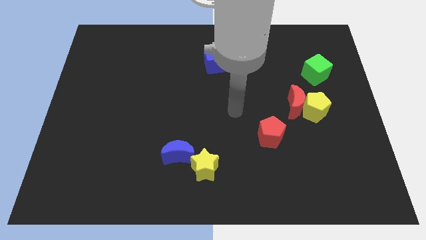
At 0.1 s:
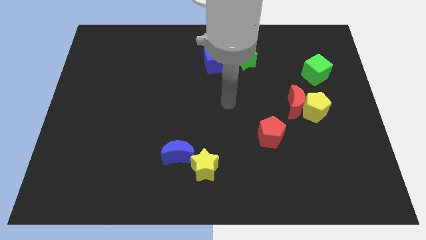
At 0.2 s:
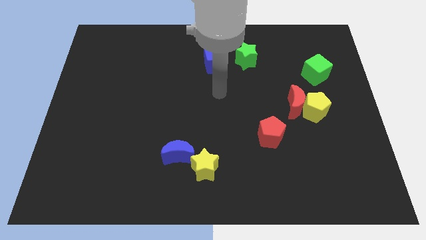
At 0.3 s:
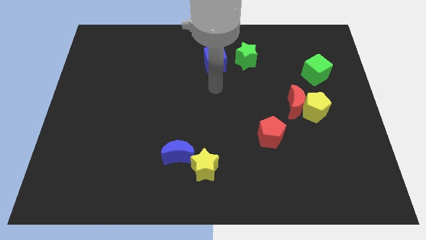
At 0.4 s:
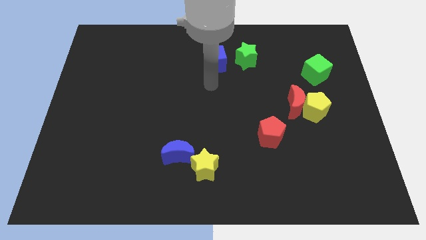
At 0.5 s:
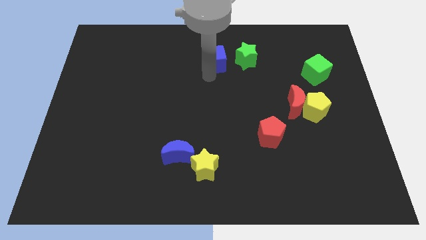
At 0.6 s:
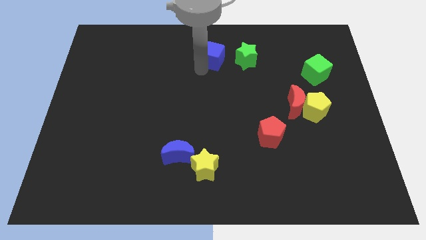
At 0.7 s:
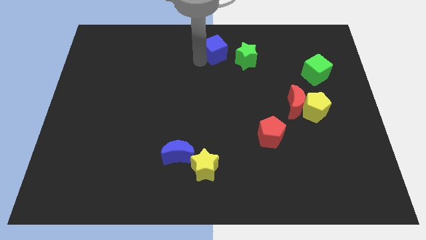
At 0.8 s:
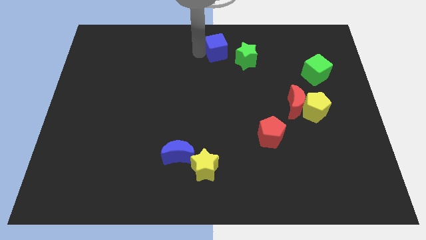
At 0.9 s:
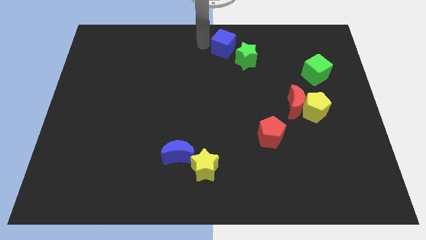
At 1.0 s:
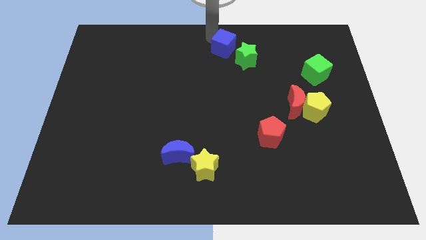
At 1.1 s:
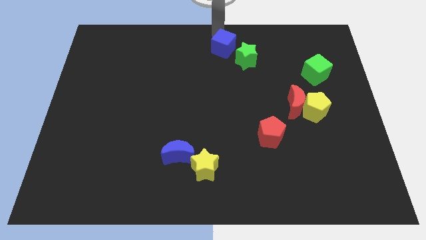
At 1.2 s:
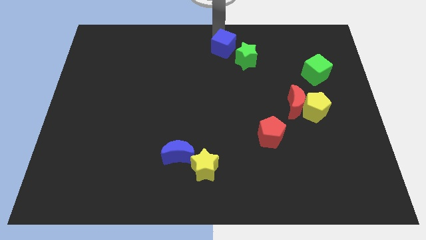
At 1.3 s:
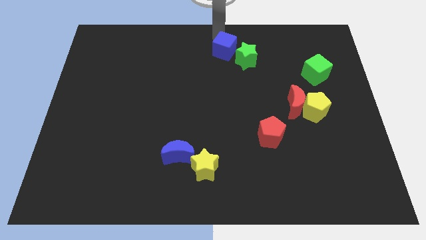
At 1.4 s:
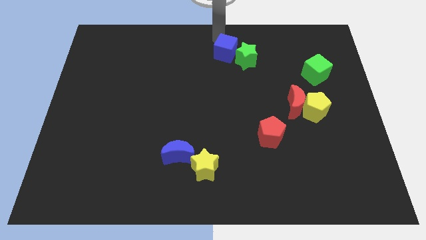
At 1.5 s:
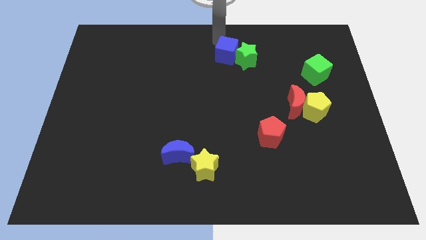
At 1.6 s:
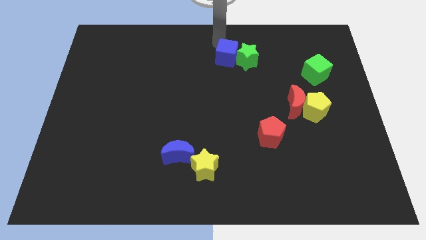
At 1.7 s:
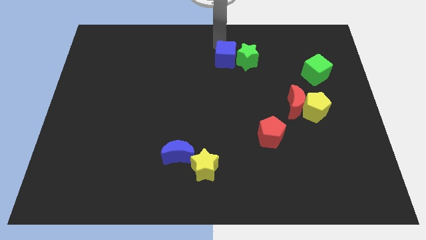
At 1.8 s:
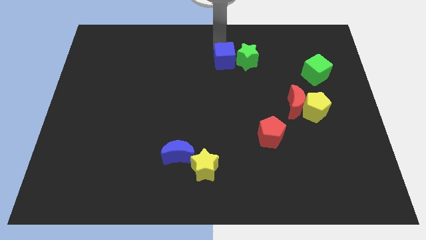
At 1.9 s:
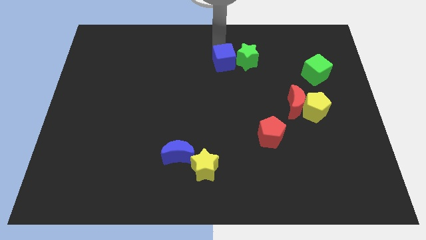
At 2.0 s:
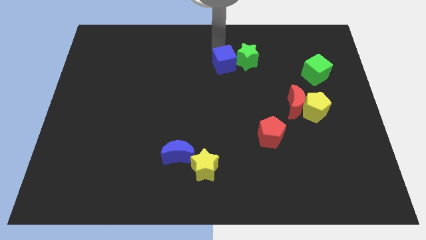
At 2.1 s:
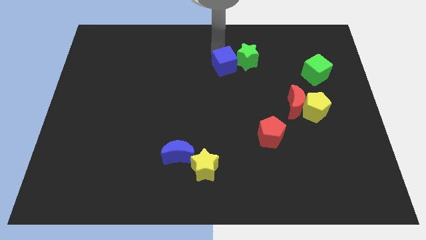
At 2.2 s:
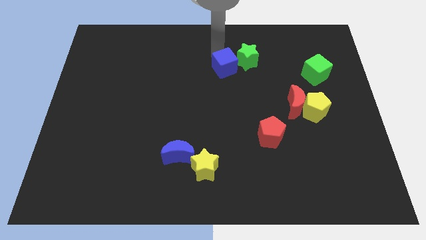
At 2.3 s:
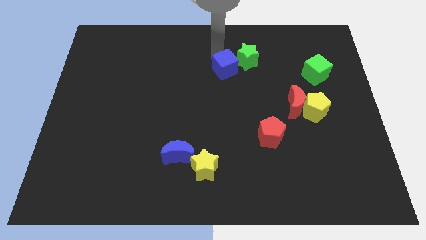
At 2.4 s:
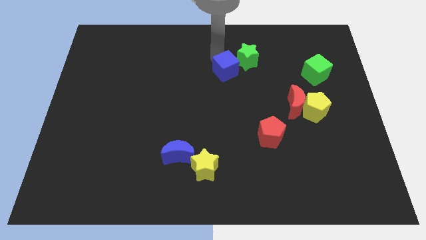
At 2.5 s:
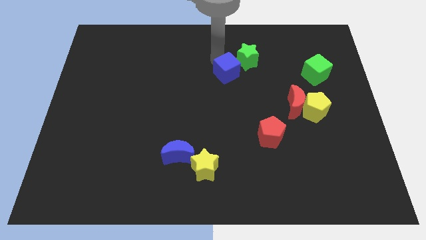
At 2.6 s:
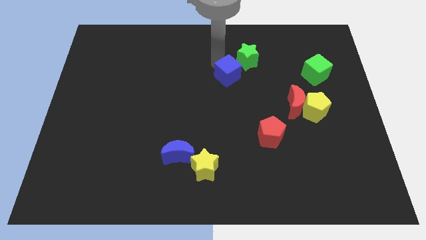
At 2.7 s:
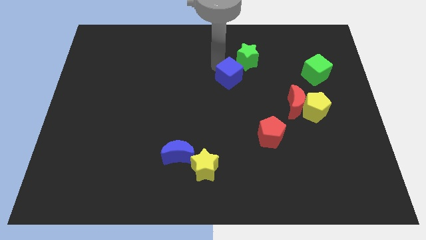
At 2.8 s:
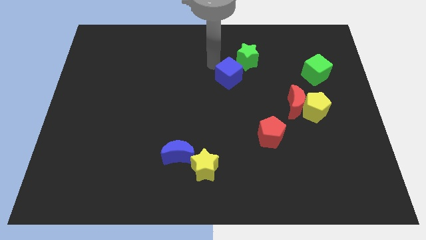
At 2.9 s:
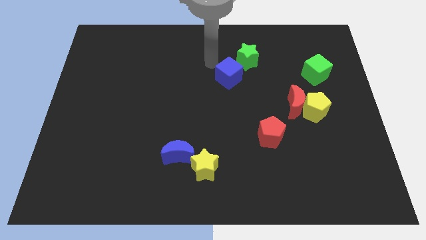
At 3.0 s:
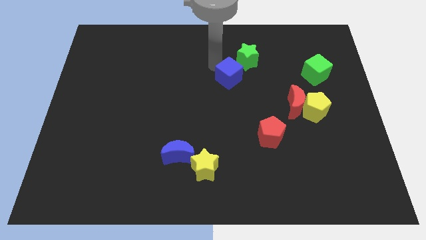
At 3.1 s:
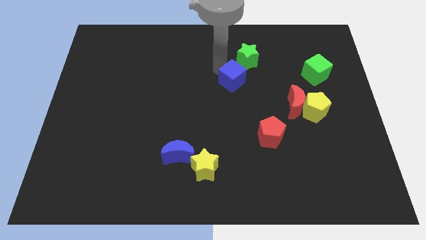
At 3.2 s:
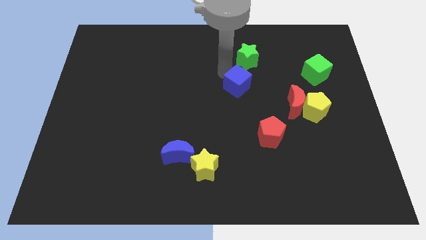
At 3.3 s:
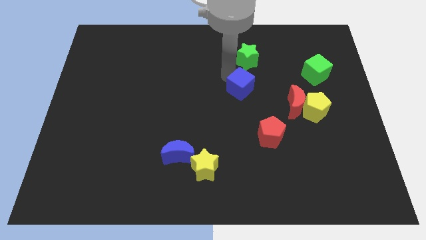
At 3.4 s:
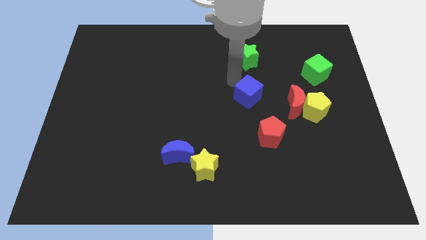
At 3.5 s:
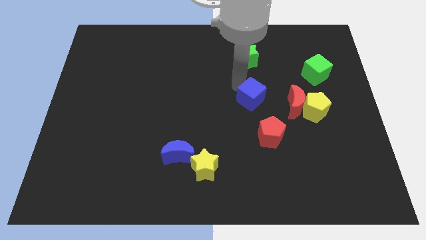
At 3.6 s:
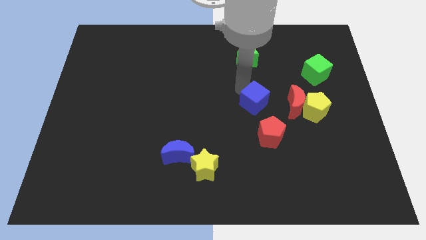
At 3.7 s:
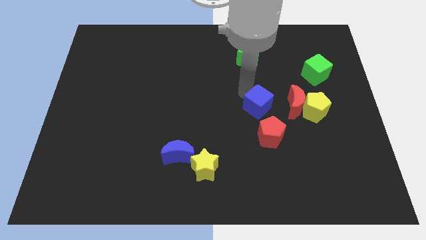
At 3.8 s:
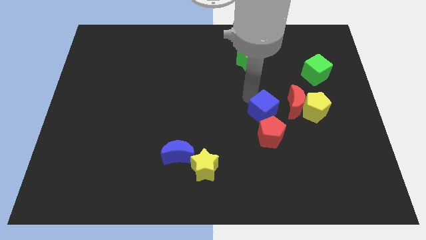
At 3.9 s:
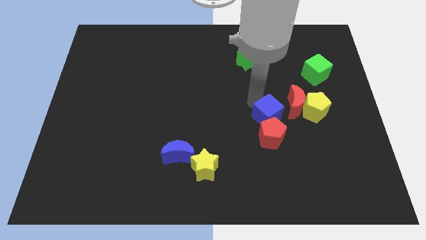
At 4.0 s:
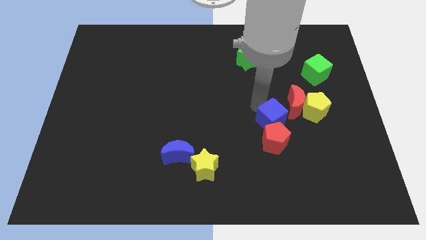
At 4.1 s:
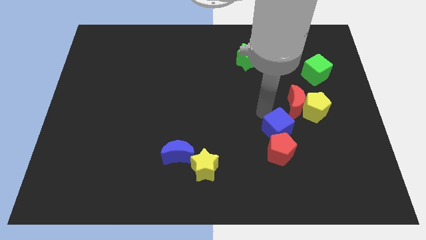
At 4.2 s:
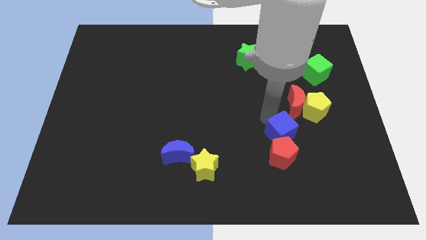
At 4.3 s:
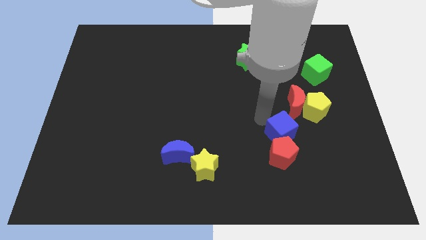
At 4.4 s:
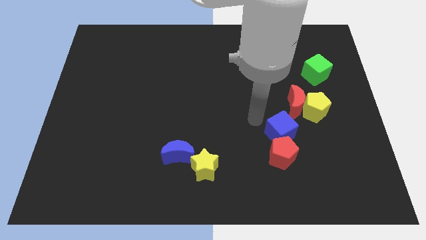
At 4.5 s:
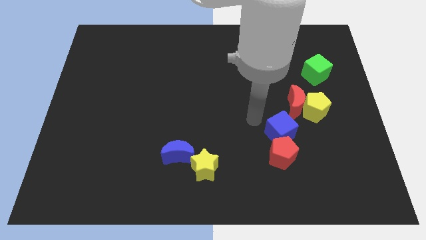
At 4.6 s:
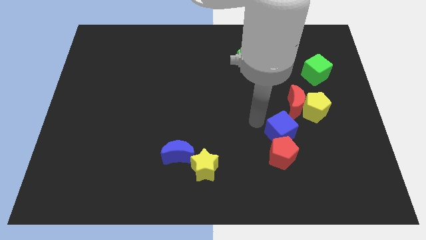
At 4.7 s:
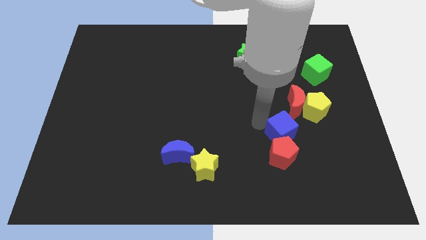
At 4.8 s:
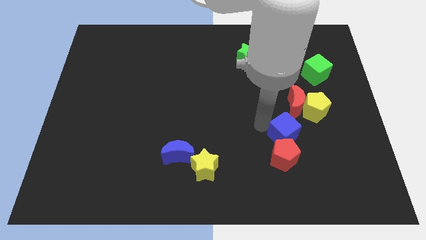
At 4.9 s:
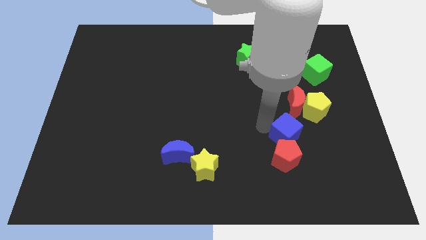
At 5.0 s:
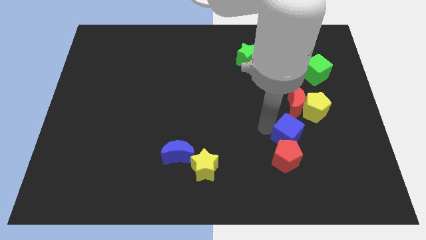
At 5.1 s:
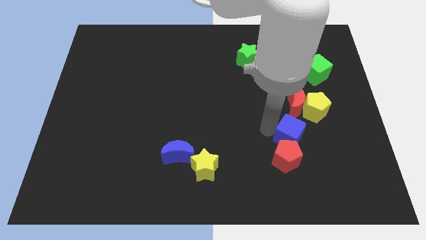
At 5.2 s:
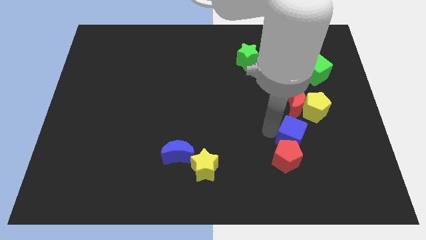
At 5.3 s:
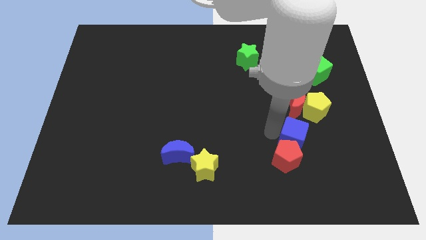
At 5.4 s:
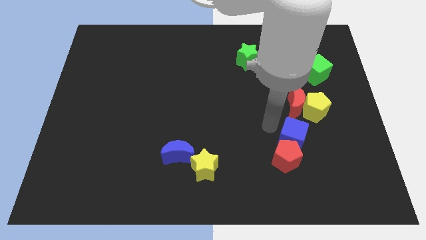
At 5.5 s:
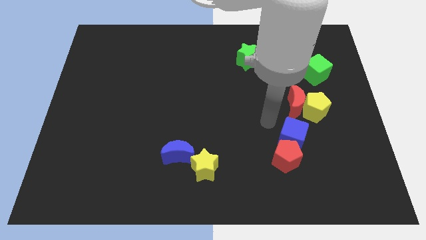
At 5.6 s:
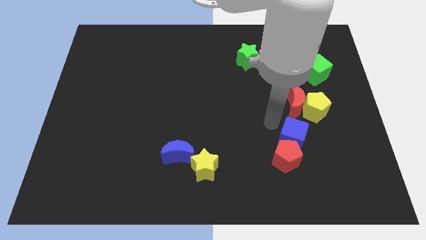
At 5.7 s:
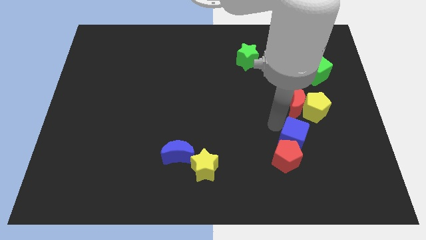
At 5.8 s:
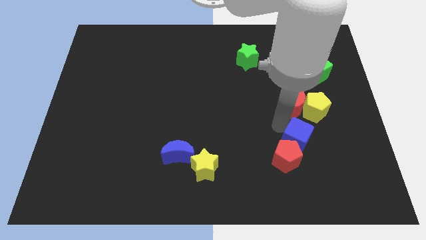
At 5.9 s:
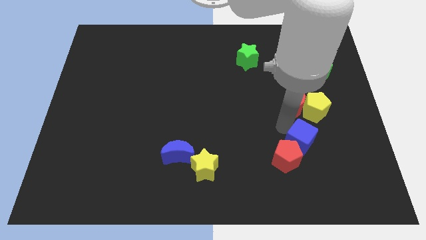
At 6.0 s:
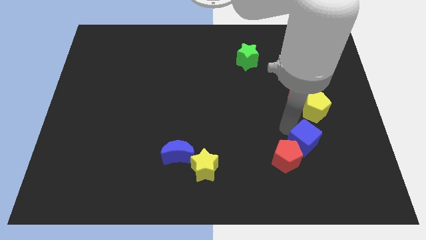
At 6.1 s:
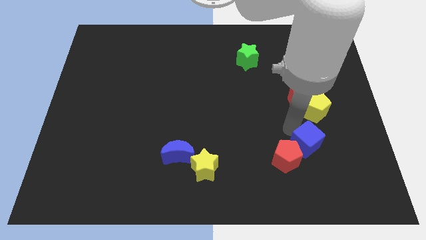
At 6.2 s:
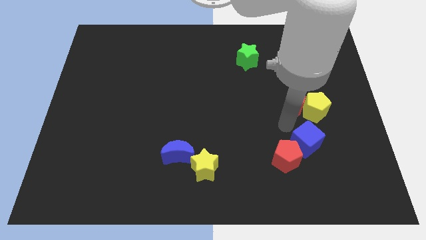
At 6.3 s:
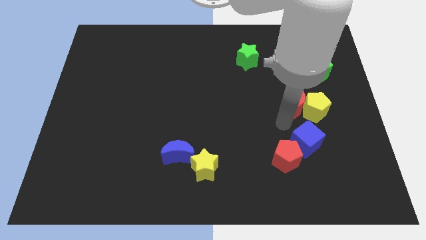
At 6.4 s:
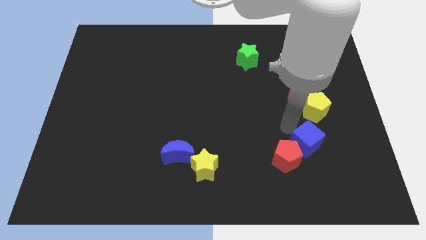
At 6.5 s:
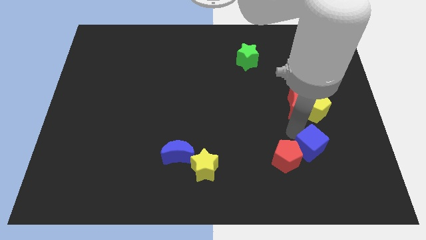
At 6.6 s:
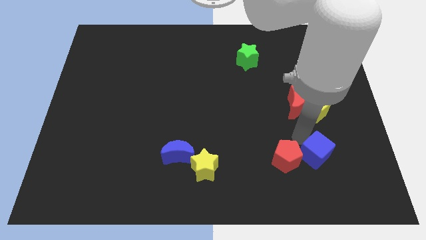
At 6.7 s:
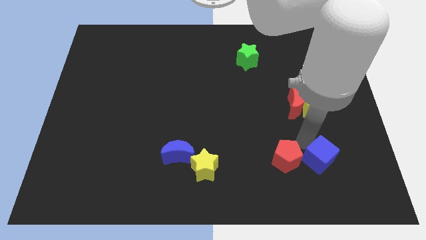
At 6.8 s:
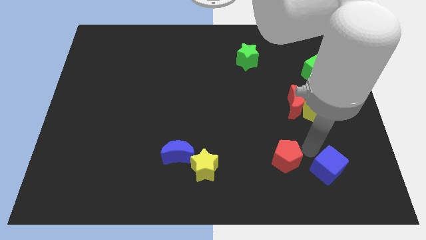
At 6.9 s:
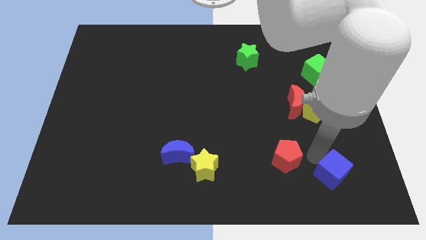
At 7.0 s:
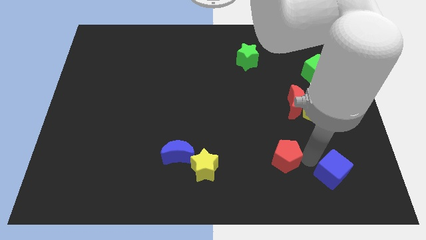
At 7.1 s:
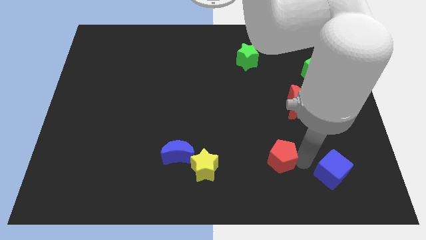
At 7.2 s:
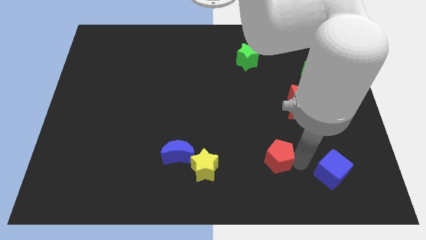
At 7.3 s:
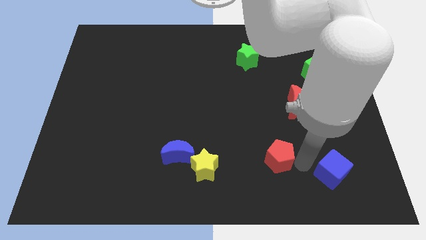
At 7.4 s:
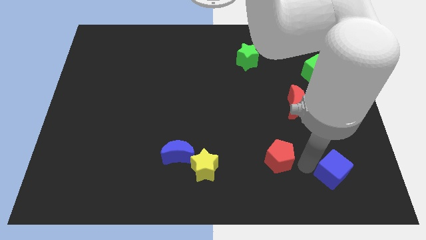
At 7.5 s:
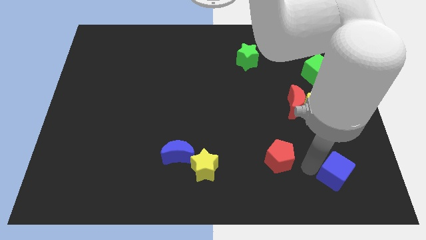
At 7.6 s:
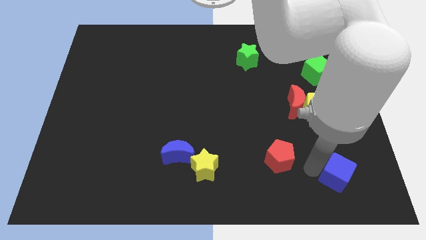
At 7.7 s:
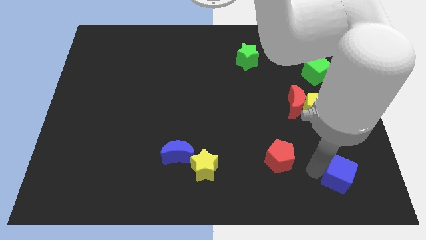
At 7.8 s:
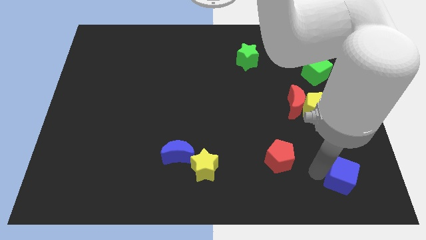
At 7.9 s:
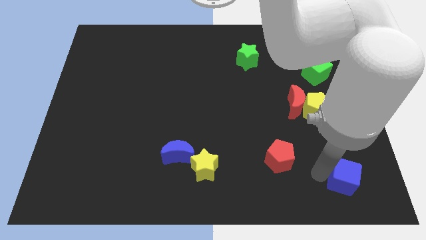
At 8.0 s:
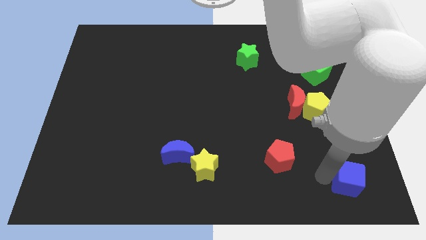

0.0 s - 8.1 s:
move the blue cube to the bottom right
